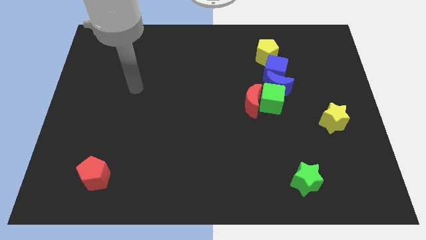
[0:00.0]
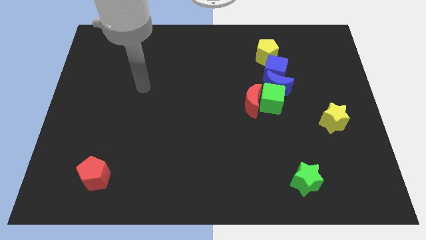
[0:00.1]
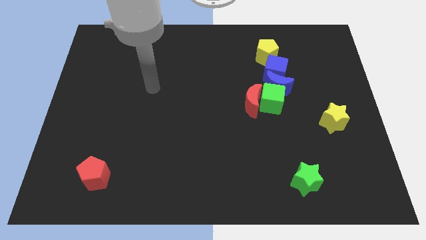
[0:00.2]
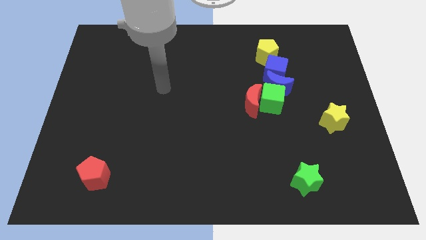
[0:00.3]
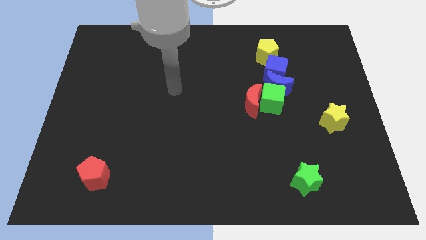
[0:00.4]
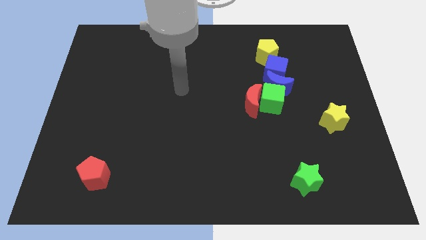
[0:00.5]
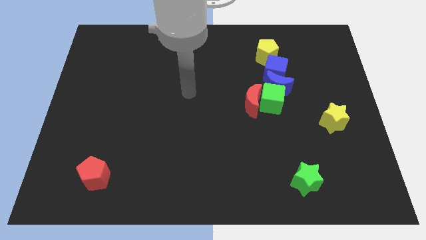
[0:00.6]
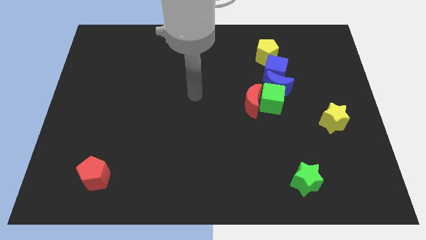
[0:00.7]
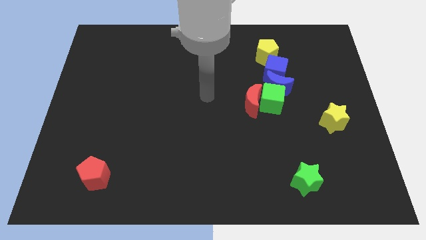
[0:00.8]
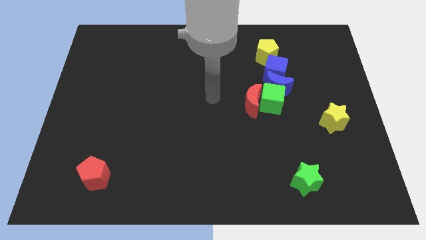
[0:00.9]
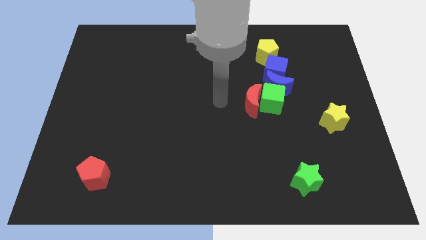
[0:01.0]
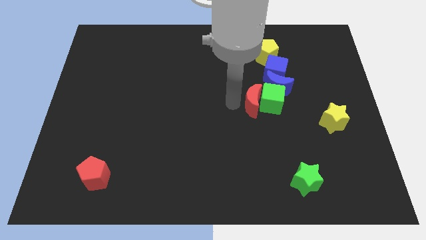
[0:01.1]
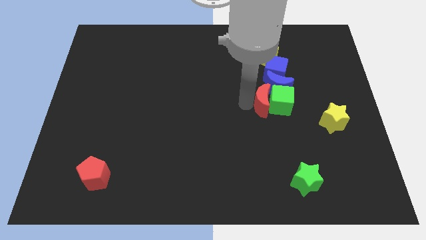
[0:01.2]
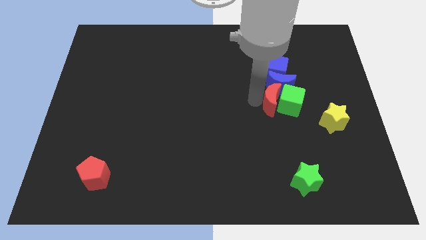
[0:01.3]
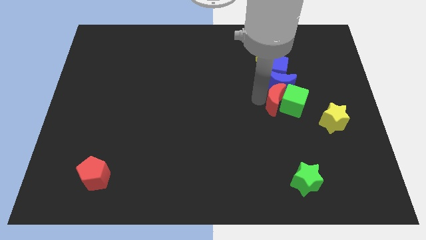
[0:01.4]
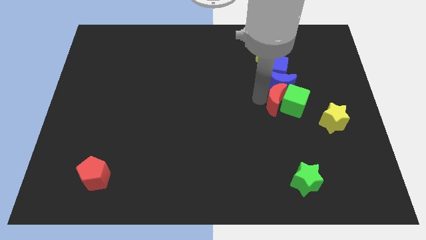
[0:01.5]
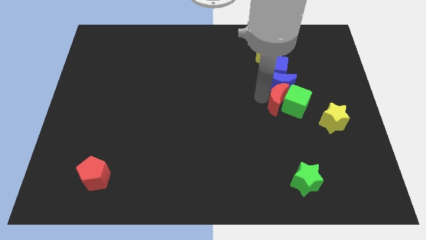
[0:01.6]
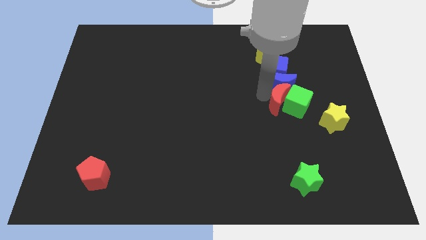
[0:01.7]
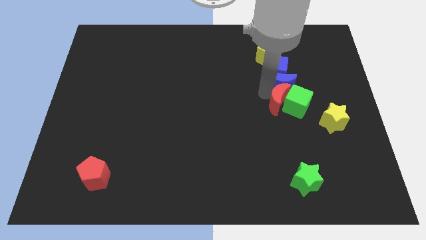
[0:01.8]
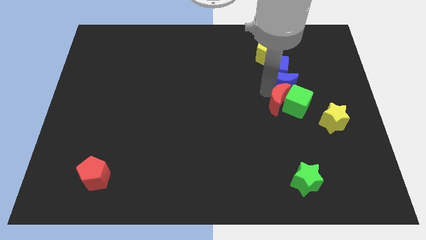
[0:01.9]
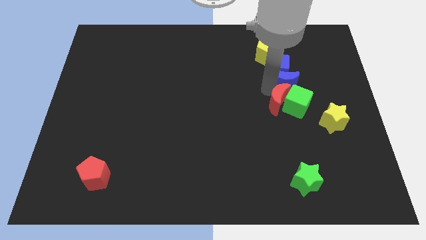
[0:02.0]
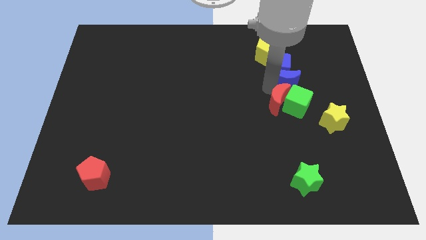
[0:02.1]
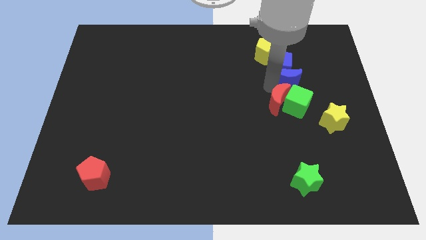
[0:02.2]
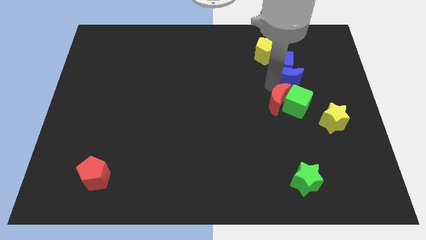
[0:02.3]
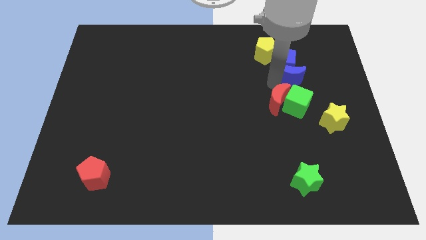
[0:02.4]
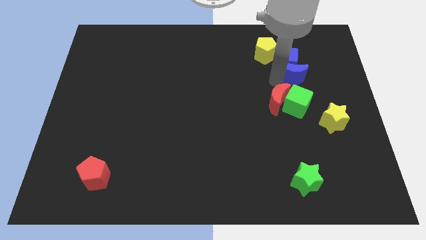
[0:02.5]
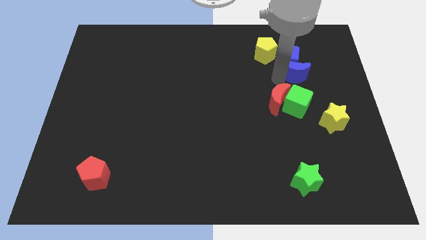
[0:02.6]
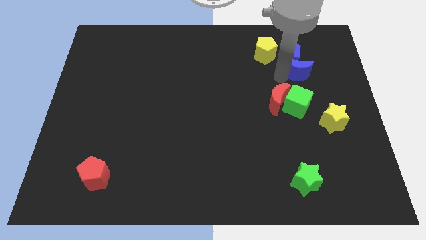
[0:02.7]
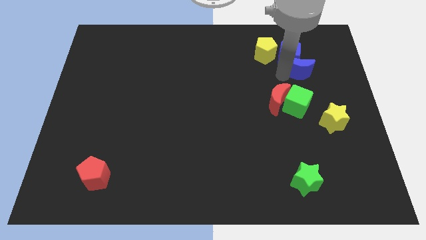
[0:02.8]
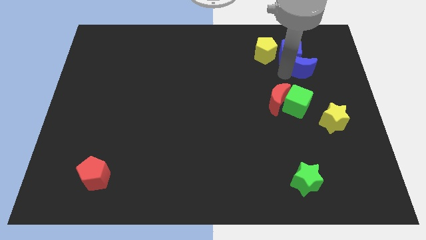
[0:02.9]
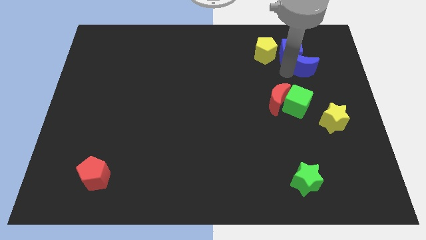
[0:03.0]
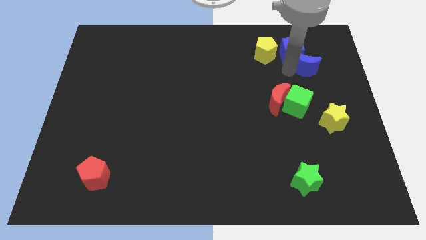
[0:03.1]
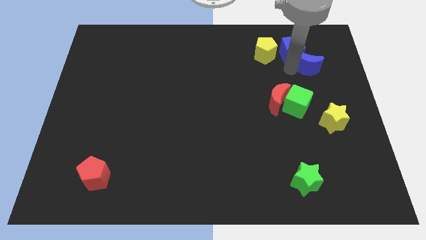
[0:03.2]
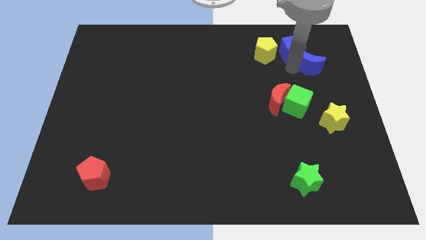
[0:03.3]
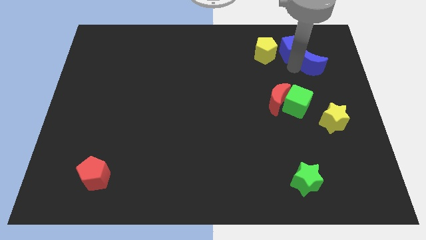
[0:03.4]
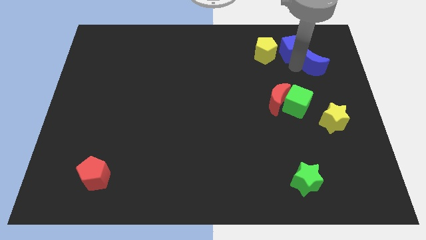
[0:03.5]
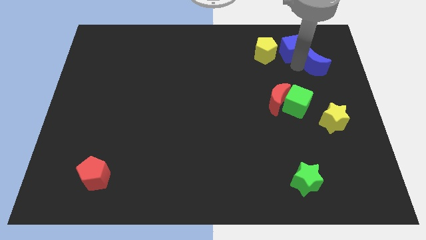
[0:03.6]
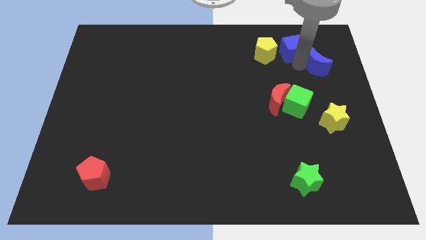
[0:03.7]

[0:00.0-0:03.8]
separate the blue moon from the clump

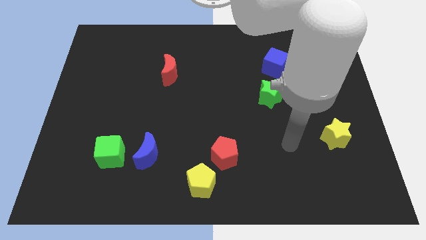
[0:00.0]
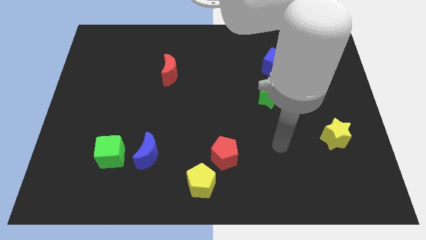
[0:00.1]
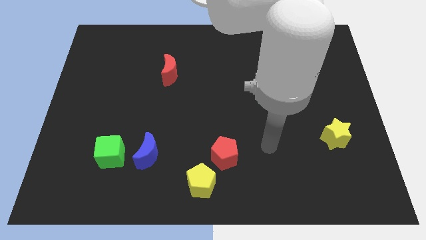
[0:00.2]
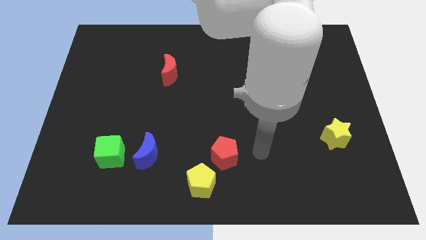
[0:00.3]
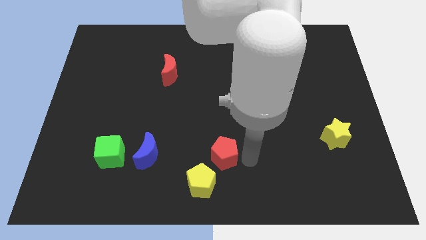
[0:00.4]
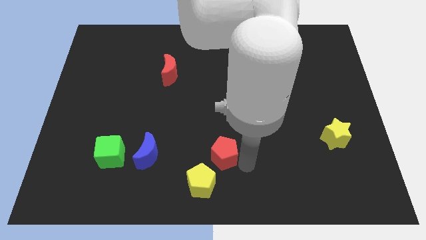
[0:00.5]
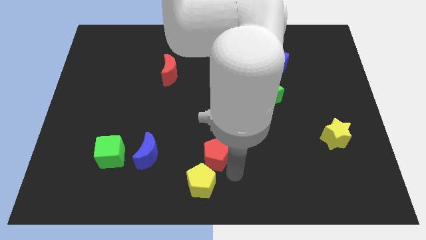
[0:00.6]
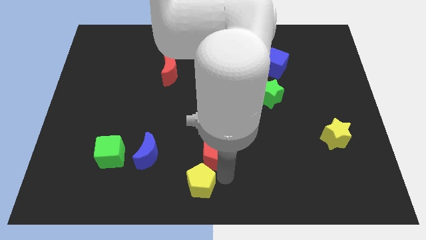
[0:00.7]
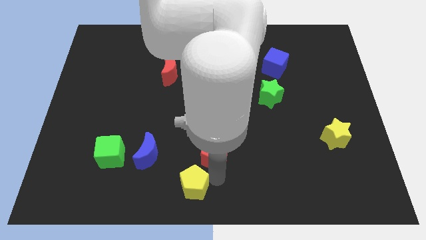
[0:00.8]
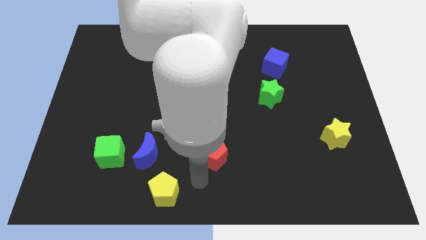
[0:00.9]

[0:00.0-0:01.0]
separate the red pentagon from the yellow pentagon

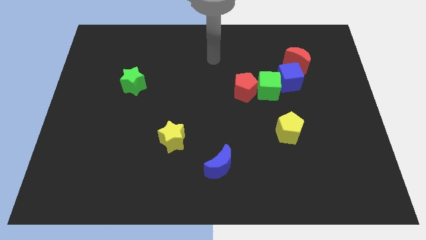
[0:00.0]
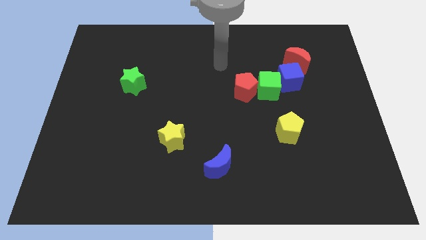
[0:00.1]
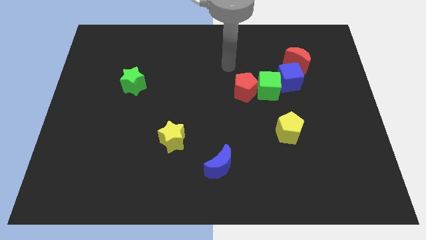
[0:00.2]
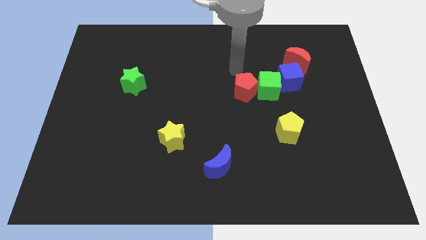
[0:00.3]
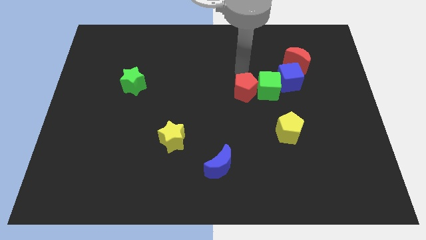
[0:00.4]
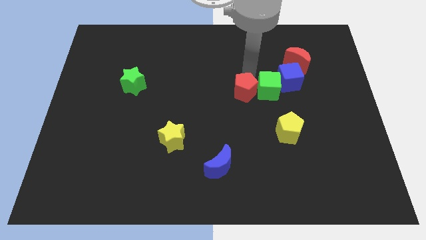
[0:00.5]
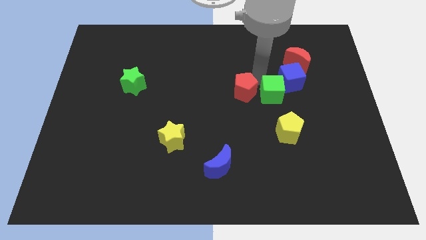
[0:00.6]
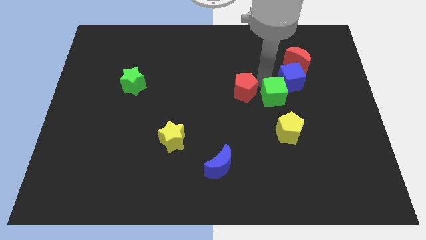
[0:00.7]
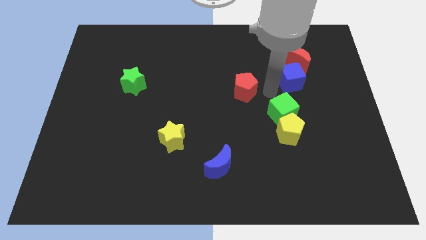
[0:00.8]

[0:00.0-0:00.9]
separate the red pentagon from the green cube

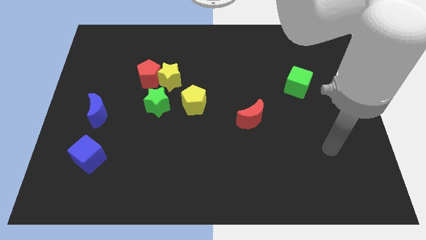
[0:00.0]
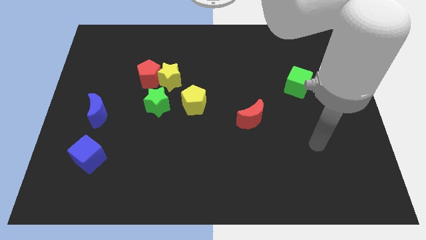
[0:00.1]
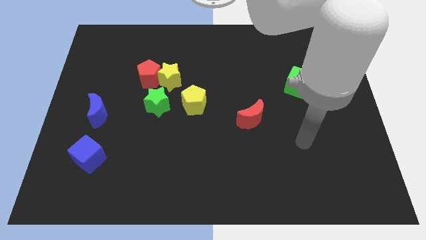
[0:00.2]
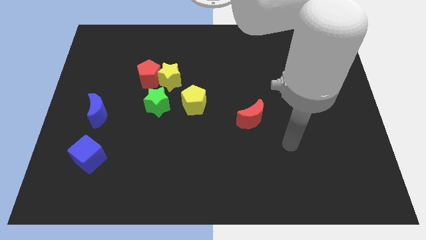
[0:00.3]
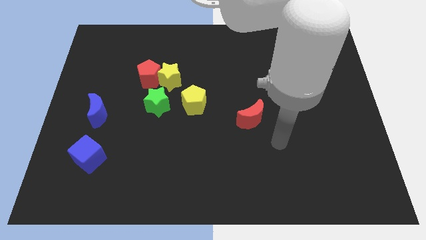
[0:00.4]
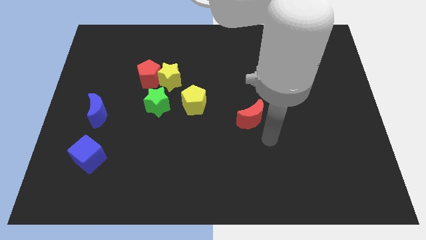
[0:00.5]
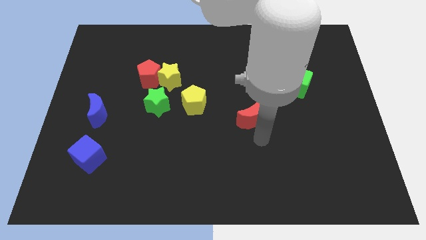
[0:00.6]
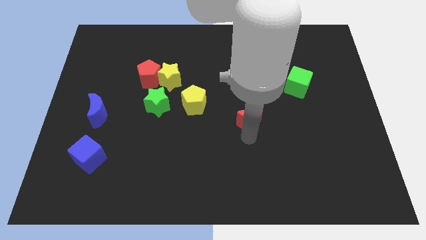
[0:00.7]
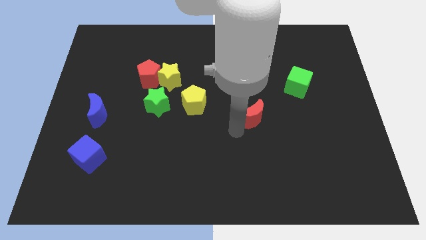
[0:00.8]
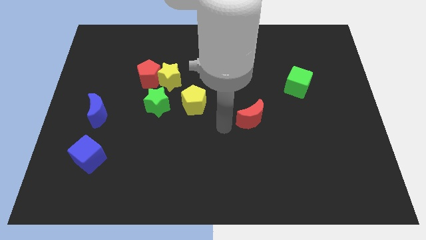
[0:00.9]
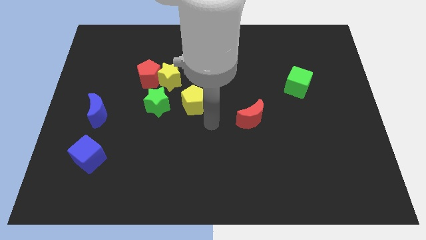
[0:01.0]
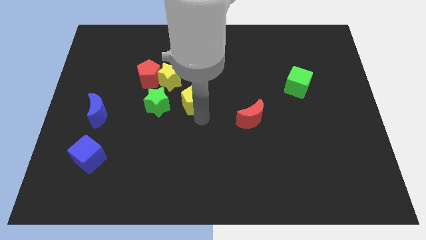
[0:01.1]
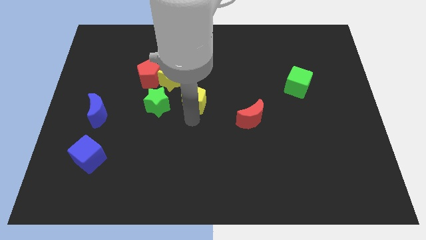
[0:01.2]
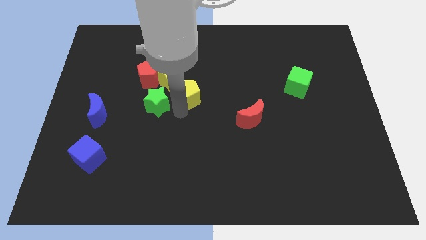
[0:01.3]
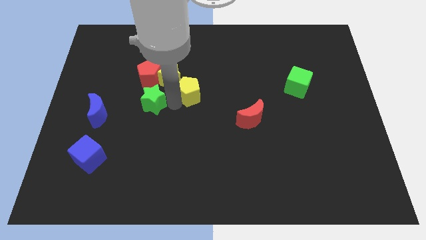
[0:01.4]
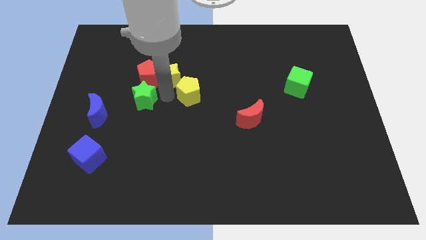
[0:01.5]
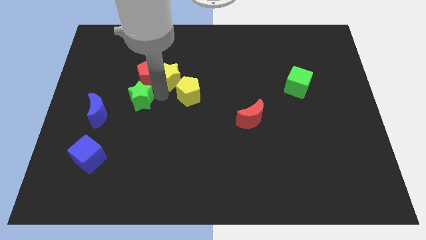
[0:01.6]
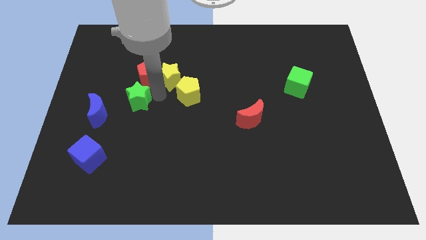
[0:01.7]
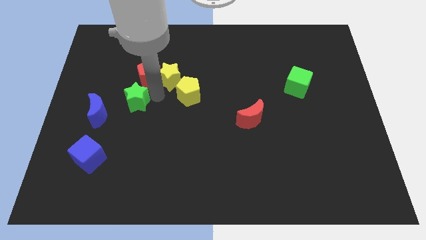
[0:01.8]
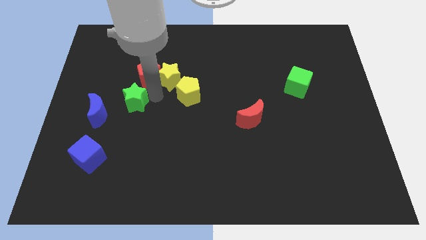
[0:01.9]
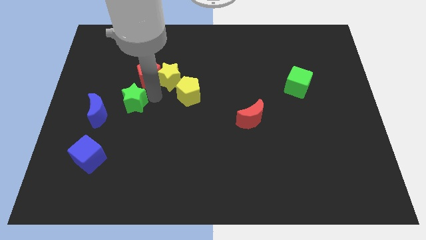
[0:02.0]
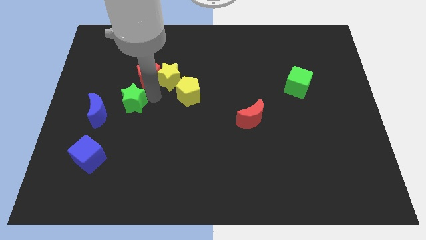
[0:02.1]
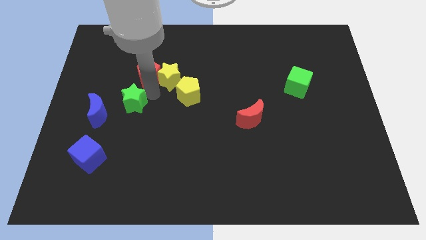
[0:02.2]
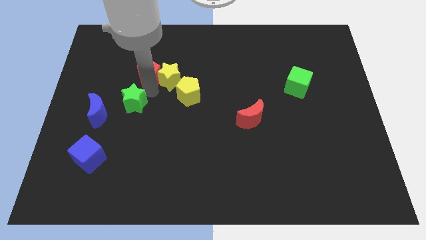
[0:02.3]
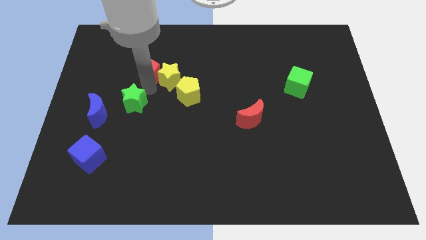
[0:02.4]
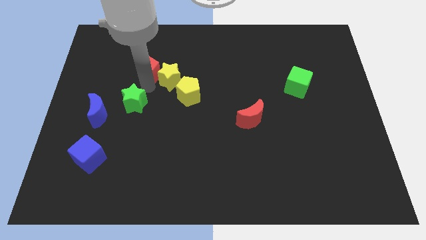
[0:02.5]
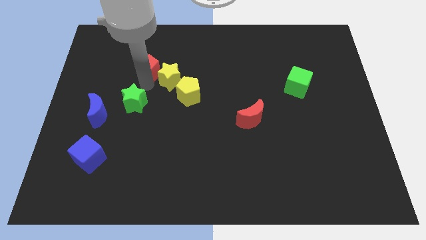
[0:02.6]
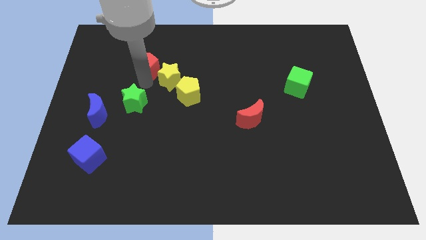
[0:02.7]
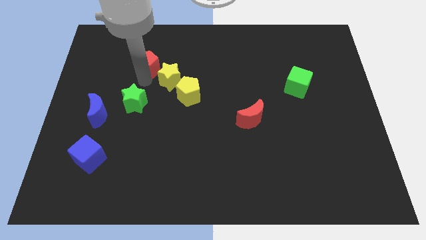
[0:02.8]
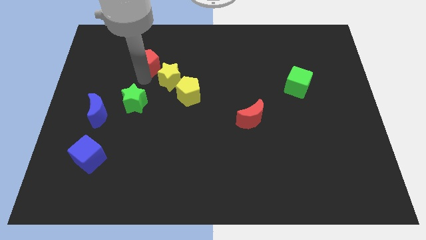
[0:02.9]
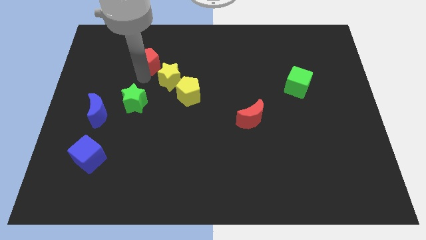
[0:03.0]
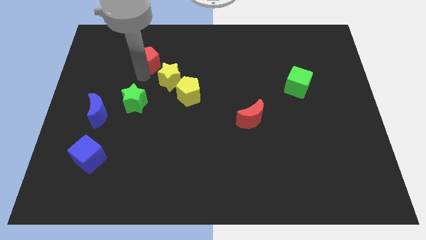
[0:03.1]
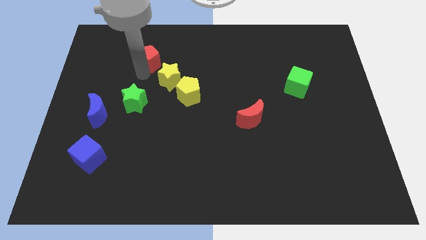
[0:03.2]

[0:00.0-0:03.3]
move the red pentagon away from the yellow star and green star

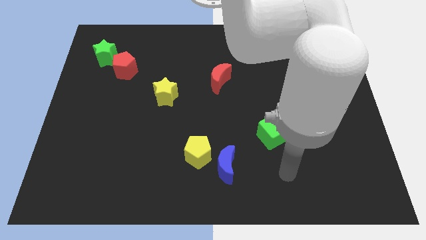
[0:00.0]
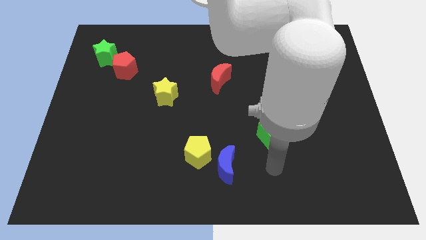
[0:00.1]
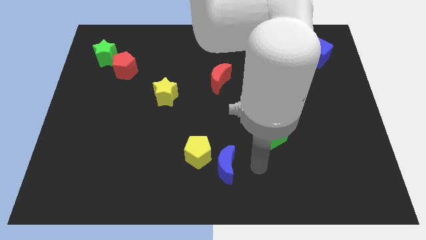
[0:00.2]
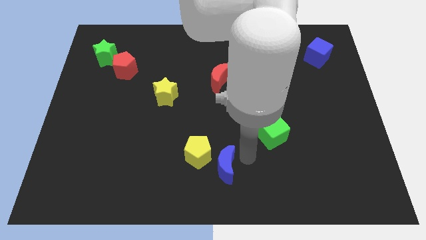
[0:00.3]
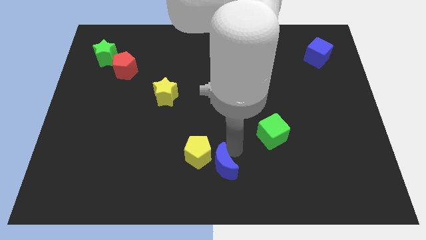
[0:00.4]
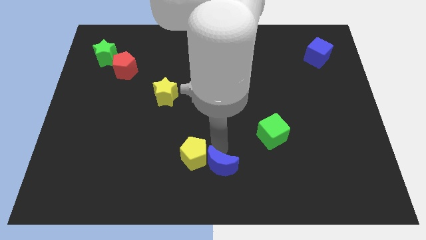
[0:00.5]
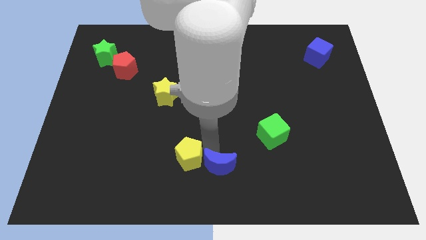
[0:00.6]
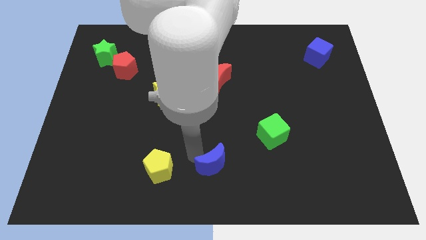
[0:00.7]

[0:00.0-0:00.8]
pull the blue moon apart from the yellow pentagon
